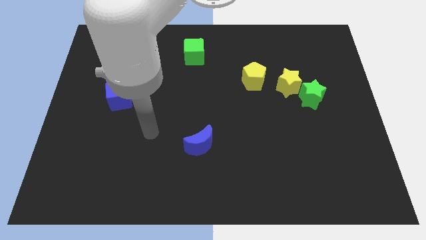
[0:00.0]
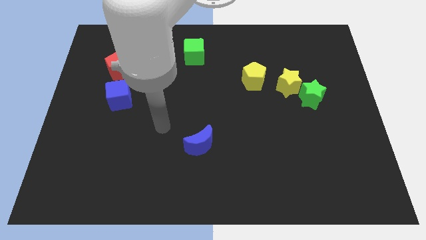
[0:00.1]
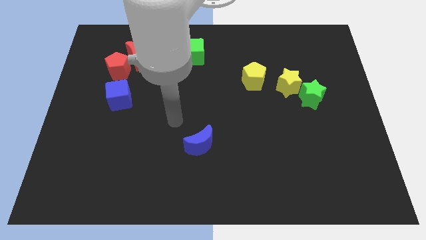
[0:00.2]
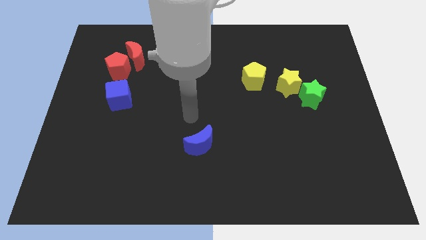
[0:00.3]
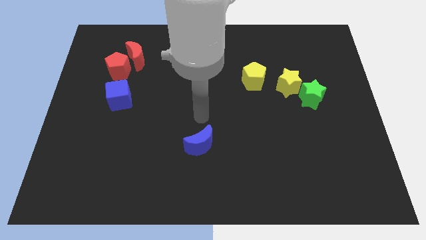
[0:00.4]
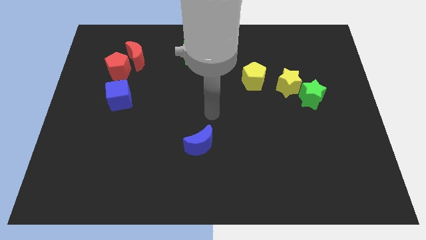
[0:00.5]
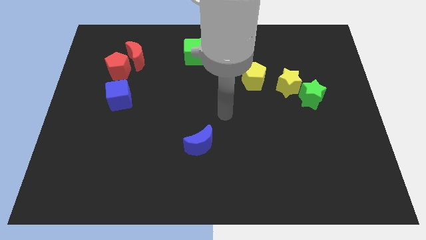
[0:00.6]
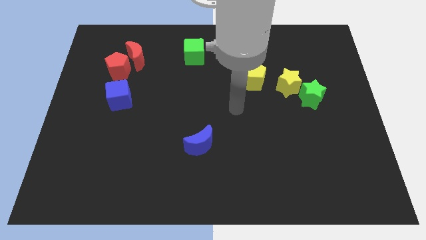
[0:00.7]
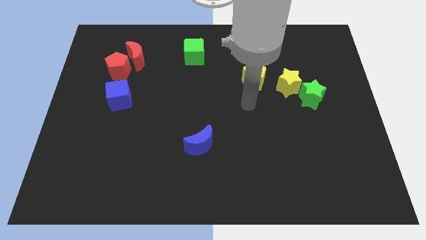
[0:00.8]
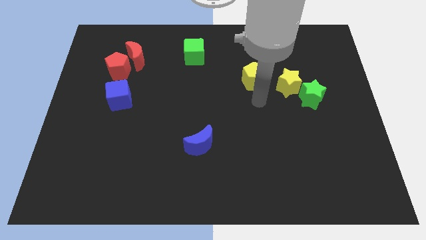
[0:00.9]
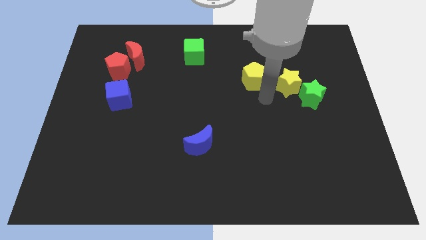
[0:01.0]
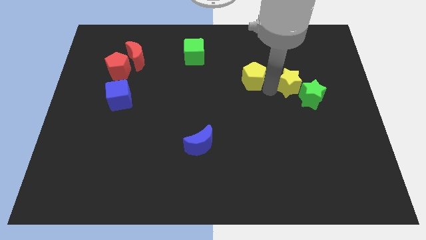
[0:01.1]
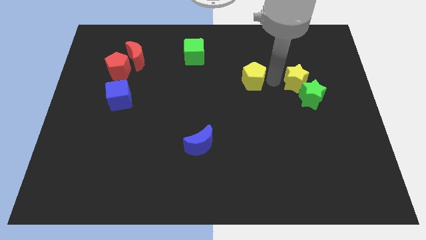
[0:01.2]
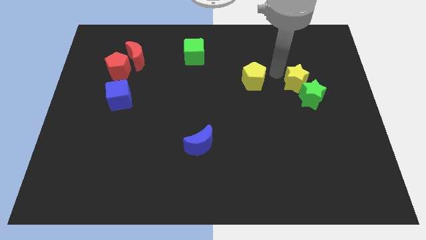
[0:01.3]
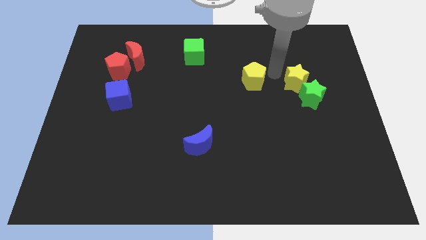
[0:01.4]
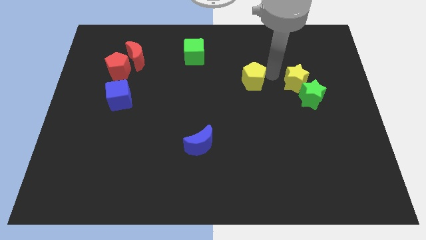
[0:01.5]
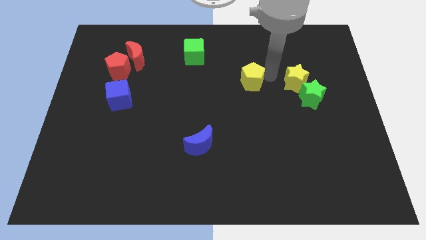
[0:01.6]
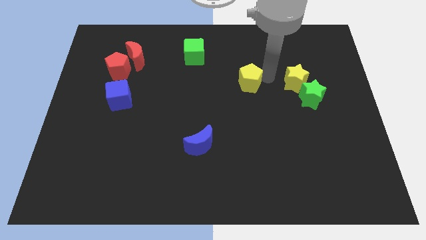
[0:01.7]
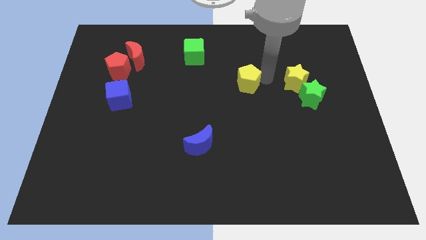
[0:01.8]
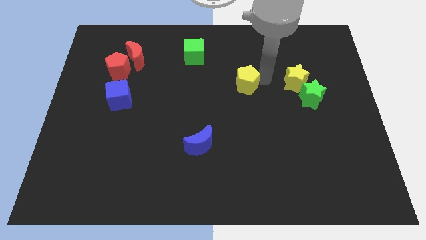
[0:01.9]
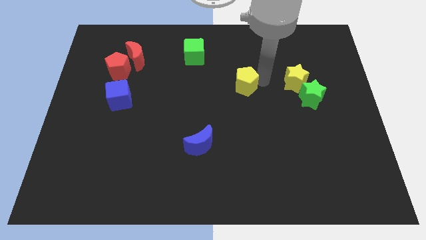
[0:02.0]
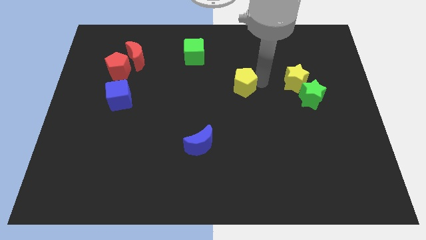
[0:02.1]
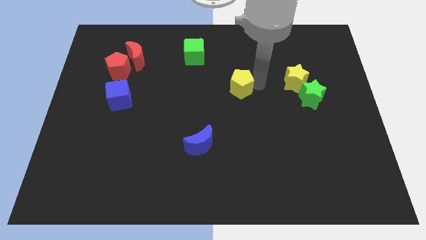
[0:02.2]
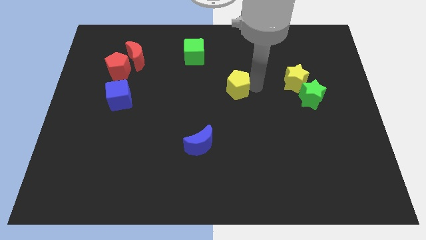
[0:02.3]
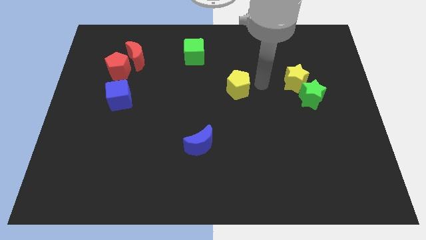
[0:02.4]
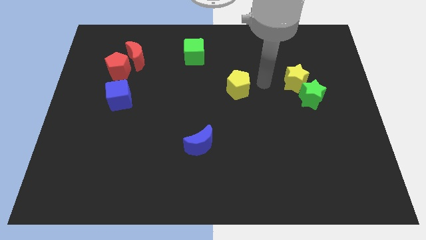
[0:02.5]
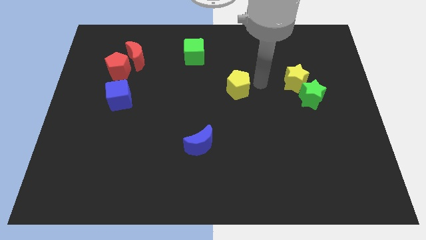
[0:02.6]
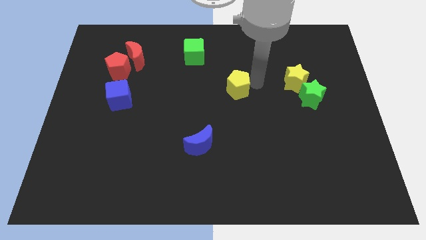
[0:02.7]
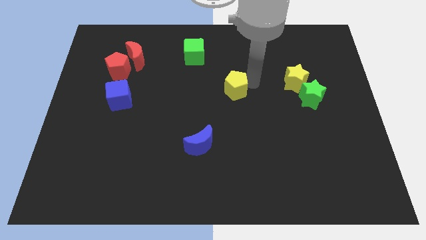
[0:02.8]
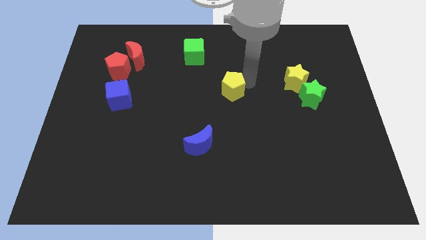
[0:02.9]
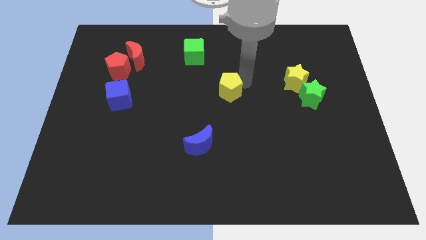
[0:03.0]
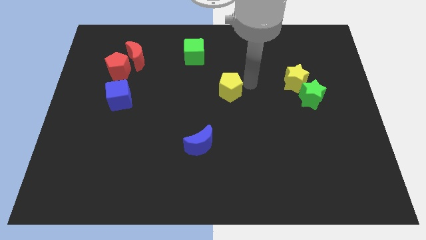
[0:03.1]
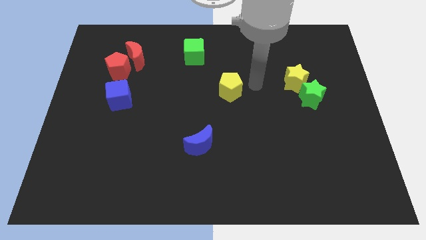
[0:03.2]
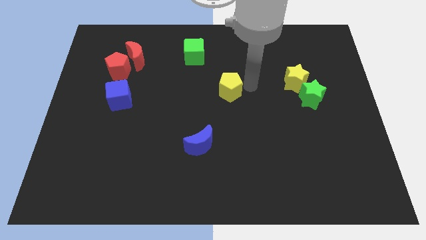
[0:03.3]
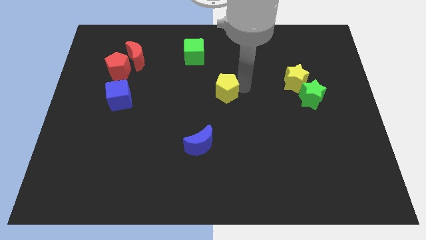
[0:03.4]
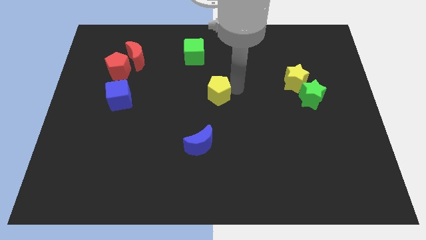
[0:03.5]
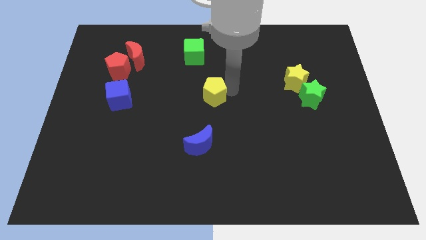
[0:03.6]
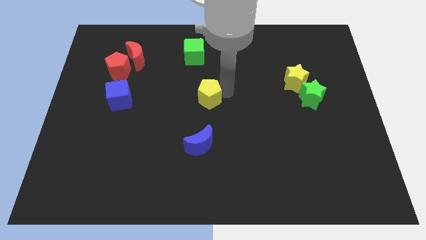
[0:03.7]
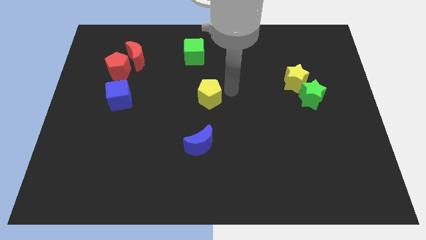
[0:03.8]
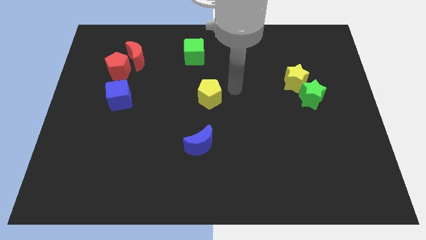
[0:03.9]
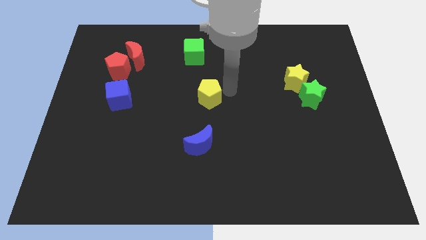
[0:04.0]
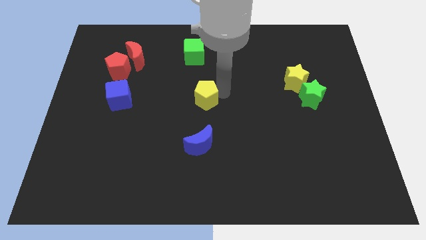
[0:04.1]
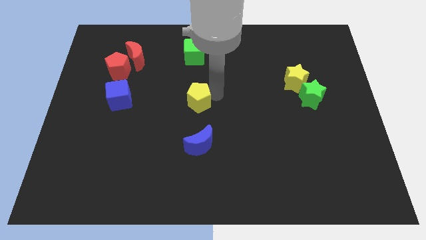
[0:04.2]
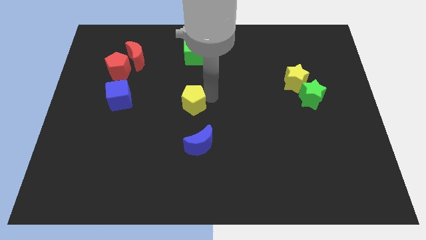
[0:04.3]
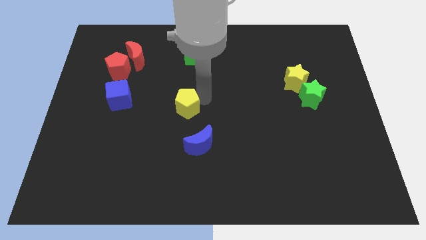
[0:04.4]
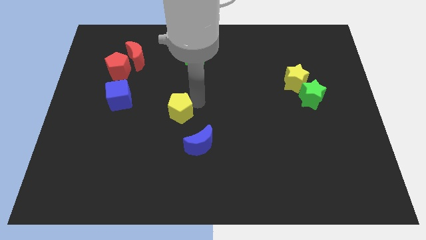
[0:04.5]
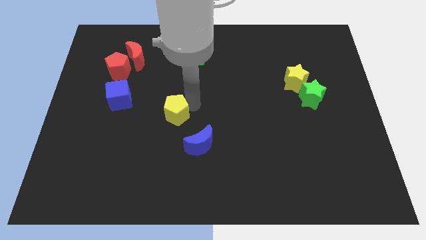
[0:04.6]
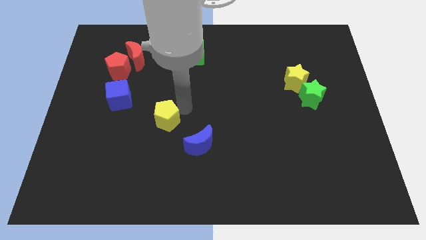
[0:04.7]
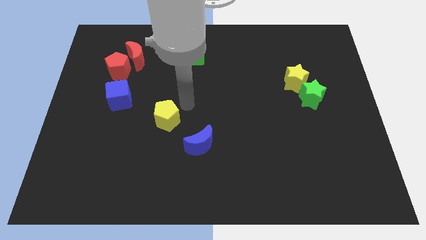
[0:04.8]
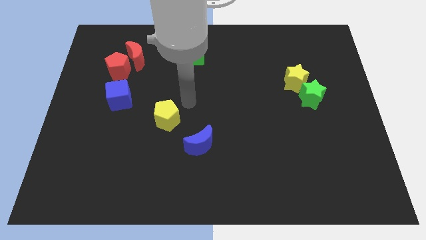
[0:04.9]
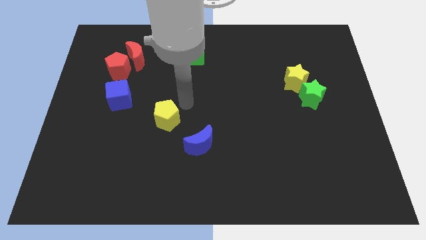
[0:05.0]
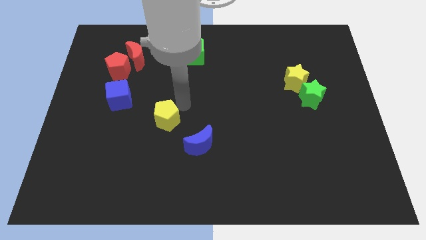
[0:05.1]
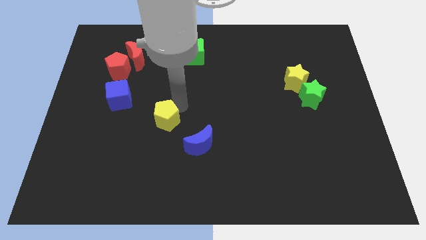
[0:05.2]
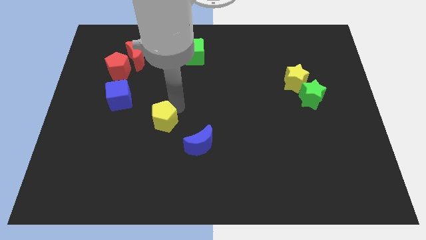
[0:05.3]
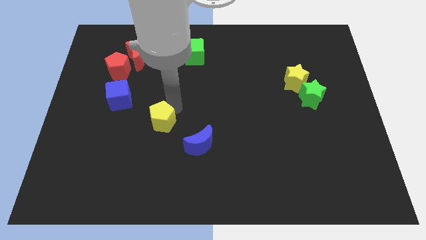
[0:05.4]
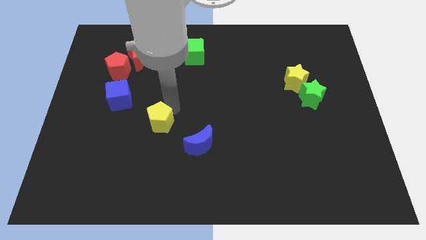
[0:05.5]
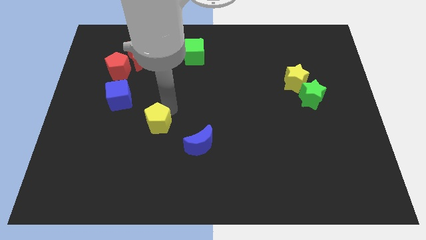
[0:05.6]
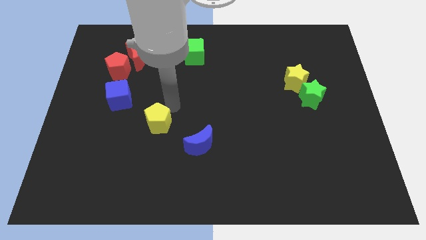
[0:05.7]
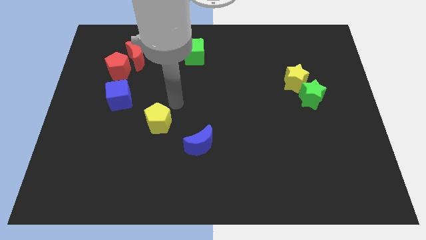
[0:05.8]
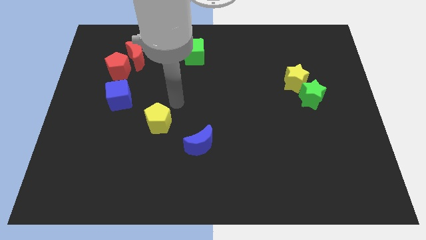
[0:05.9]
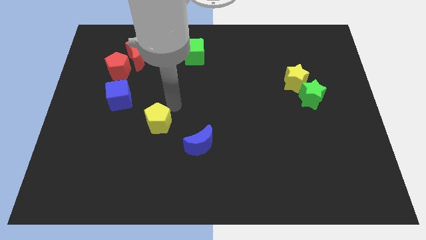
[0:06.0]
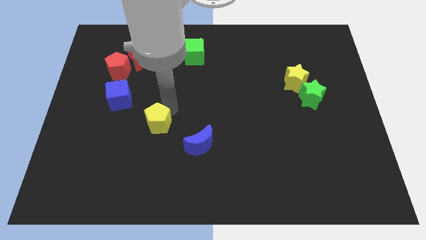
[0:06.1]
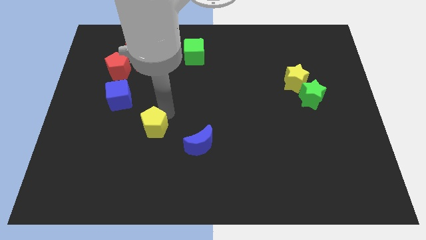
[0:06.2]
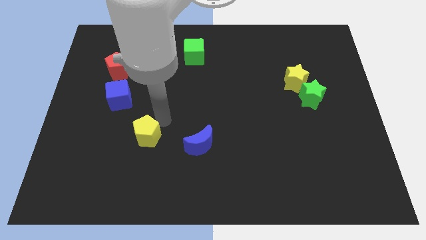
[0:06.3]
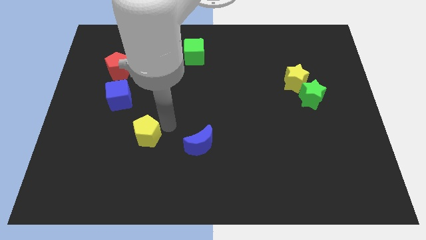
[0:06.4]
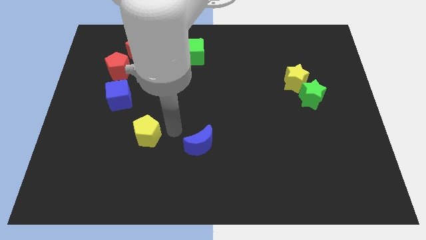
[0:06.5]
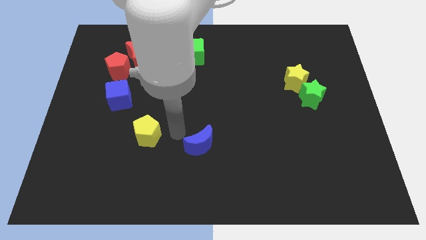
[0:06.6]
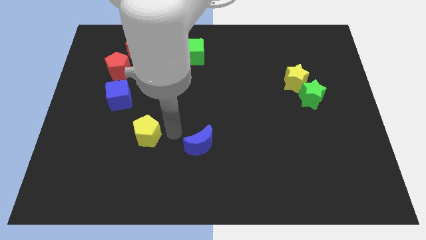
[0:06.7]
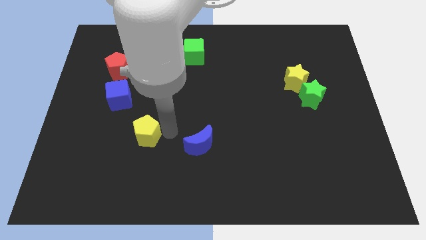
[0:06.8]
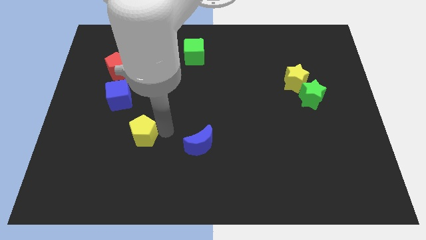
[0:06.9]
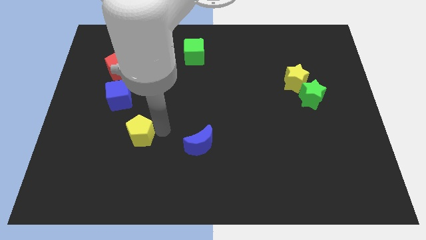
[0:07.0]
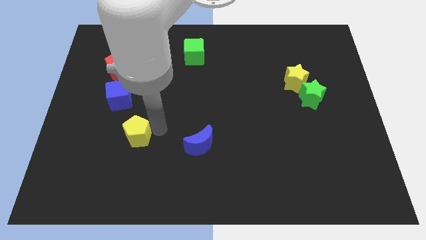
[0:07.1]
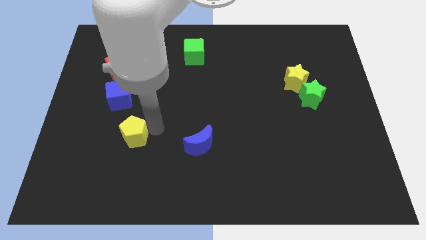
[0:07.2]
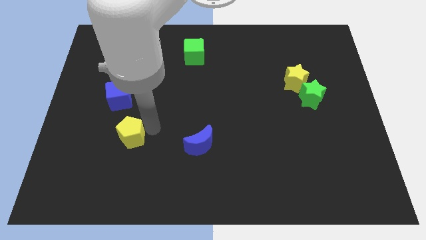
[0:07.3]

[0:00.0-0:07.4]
move the yellow pentagon to the bottom of the blue cube
